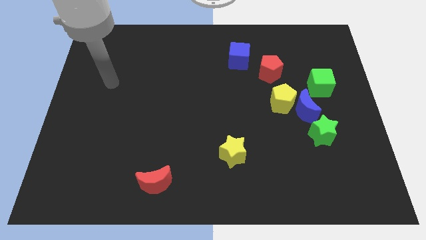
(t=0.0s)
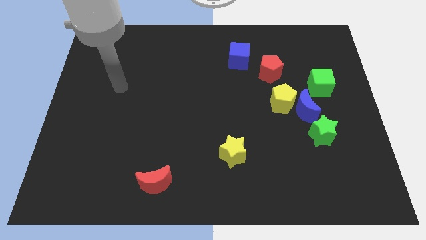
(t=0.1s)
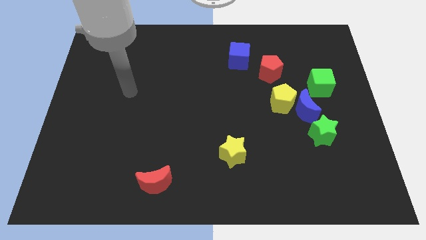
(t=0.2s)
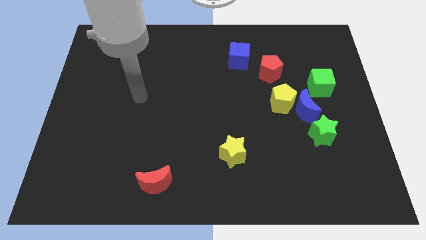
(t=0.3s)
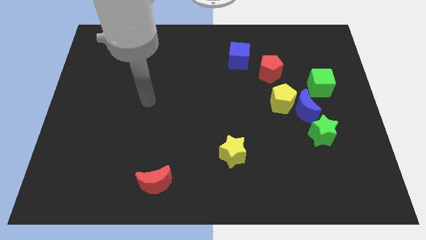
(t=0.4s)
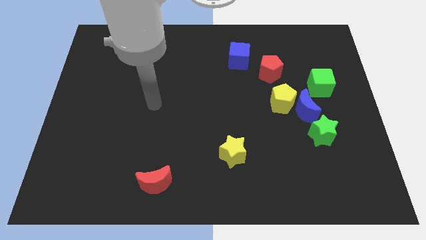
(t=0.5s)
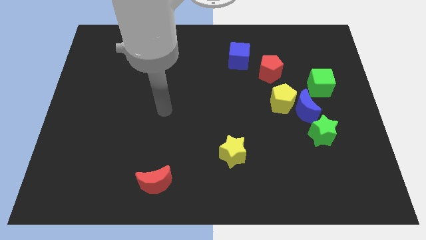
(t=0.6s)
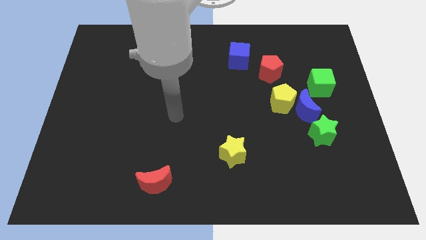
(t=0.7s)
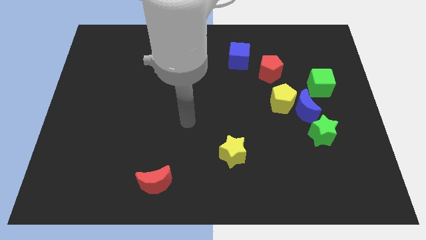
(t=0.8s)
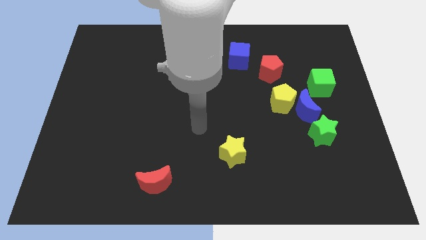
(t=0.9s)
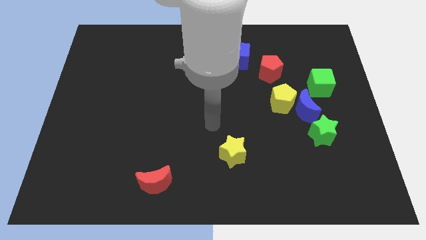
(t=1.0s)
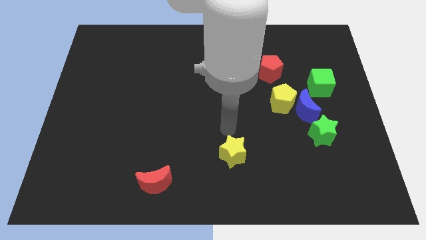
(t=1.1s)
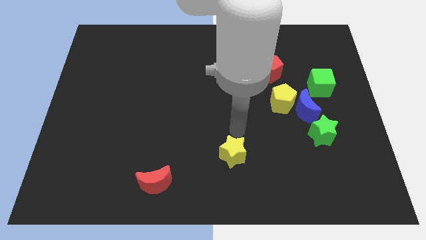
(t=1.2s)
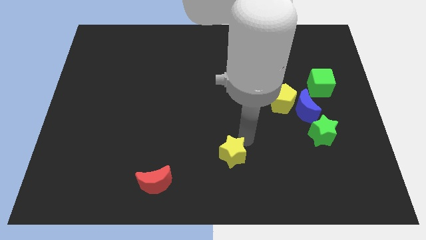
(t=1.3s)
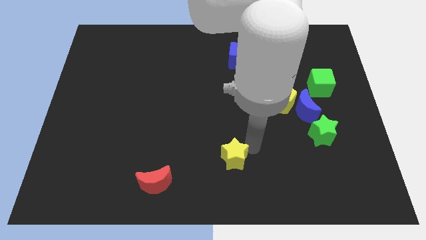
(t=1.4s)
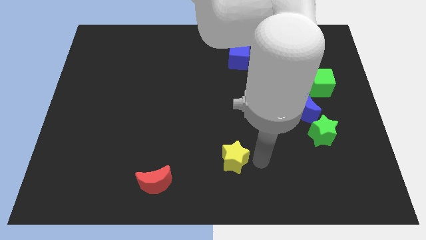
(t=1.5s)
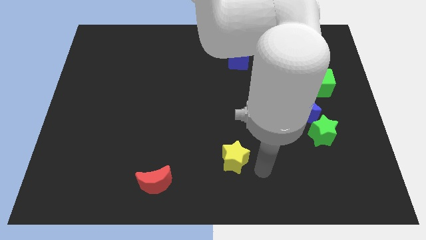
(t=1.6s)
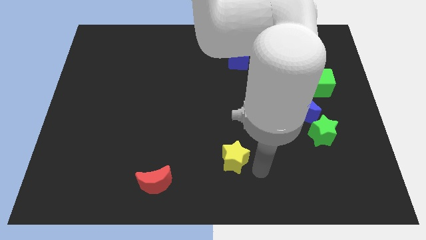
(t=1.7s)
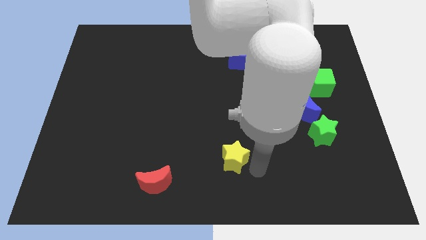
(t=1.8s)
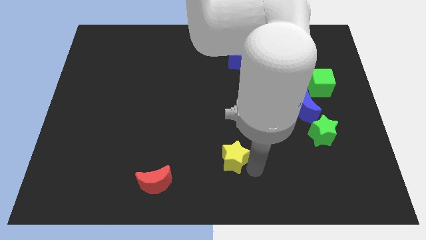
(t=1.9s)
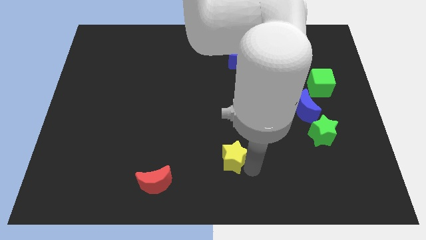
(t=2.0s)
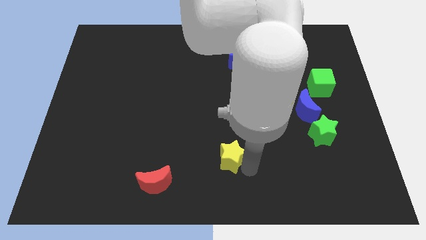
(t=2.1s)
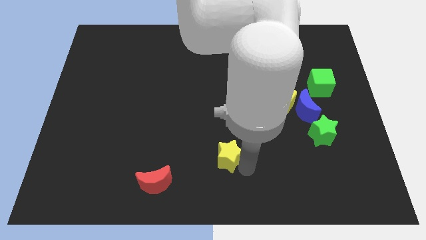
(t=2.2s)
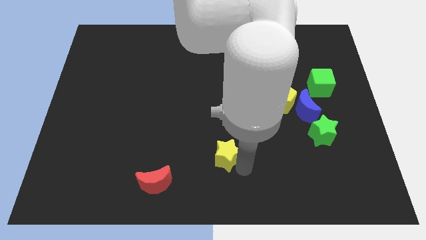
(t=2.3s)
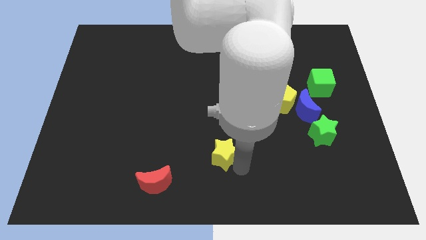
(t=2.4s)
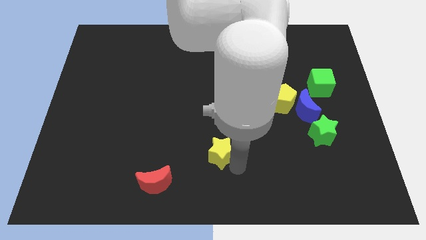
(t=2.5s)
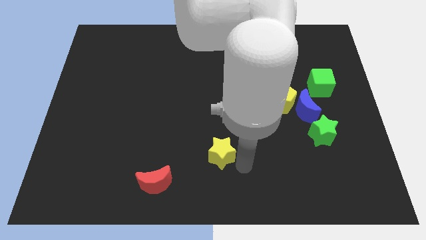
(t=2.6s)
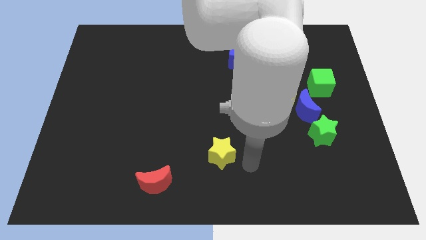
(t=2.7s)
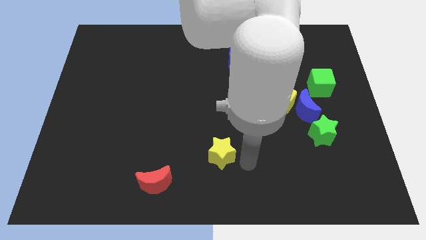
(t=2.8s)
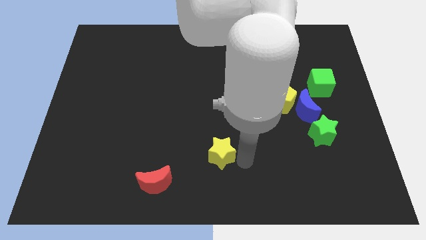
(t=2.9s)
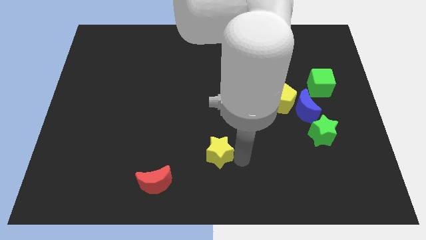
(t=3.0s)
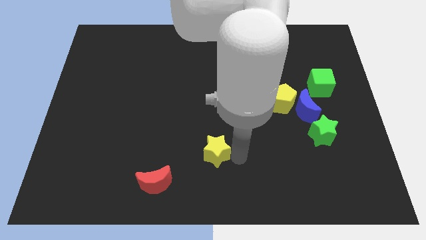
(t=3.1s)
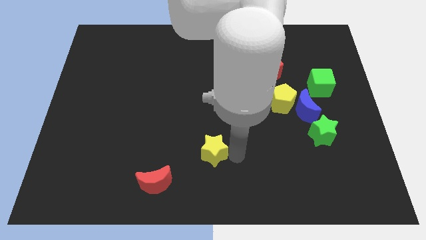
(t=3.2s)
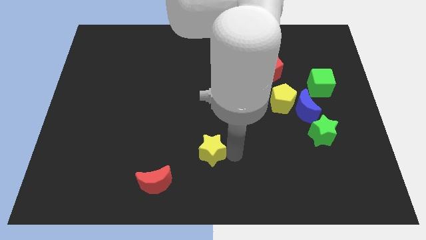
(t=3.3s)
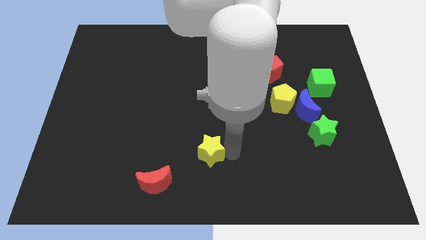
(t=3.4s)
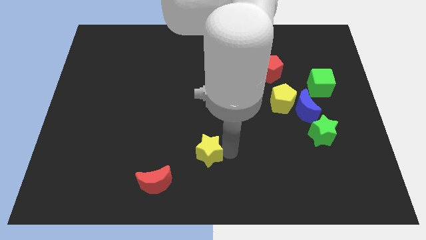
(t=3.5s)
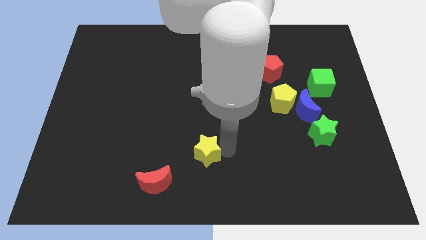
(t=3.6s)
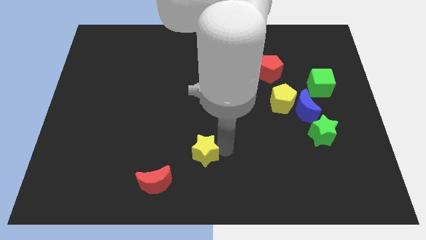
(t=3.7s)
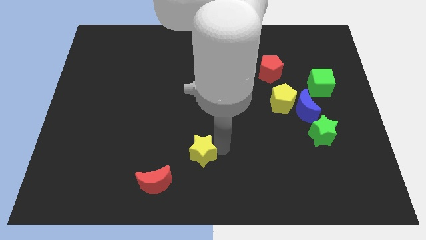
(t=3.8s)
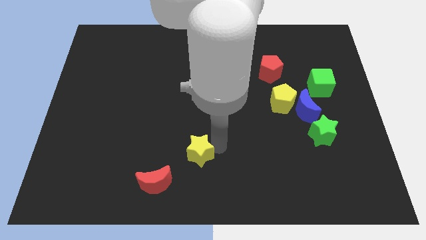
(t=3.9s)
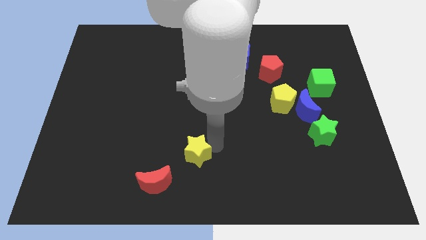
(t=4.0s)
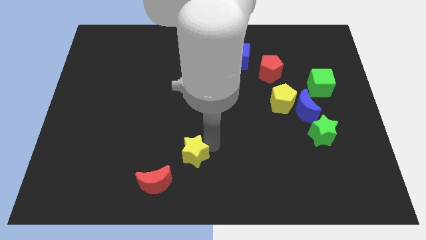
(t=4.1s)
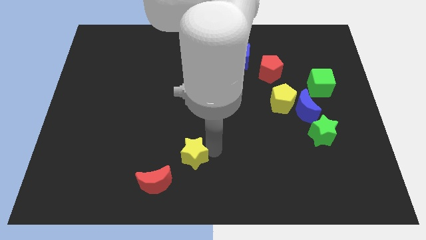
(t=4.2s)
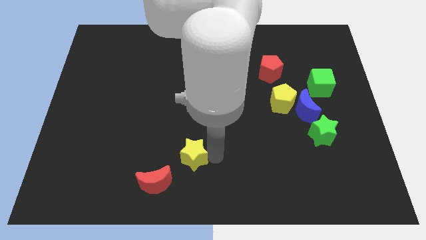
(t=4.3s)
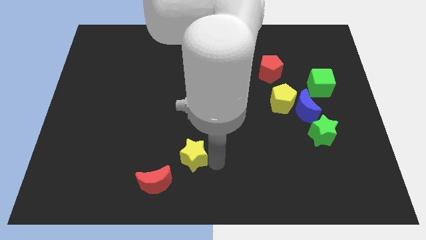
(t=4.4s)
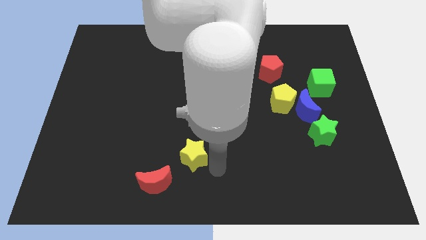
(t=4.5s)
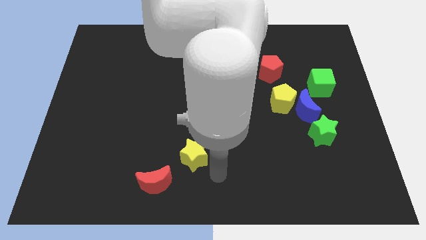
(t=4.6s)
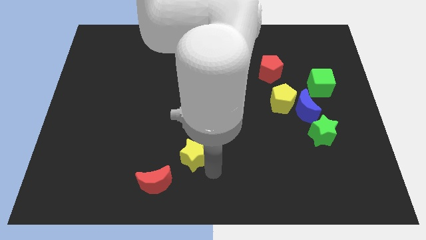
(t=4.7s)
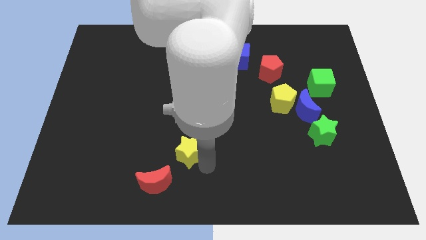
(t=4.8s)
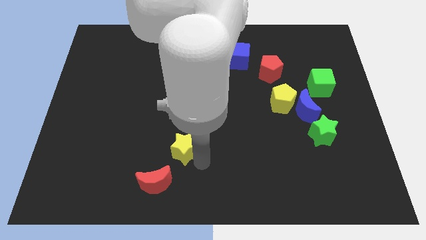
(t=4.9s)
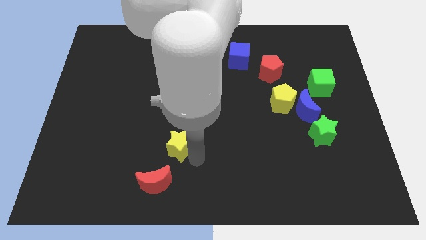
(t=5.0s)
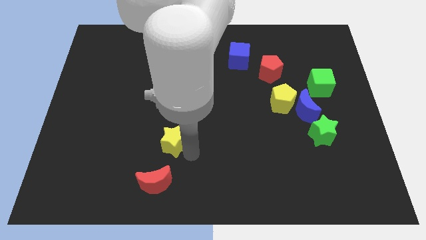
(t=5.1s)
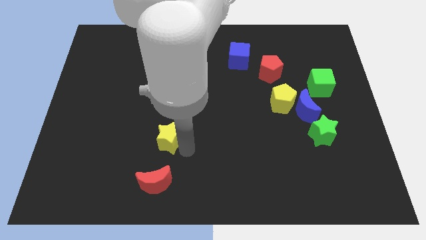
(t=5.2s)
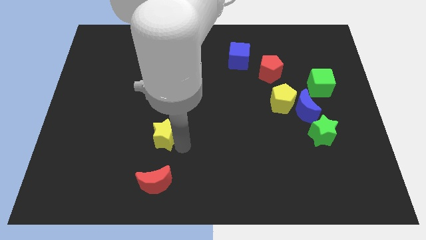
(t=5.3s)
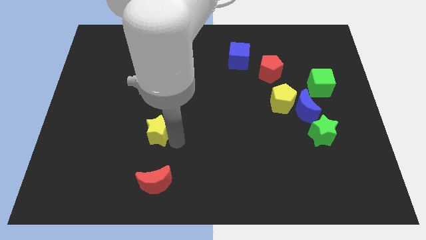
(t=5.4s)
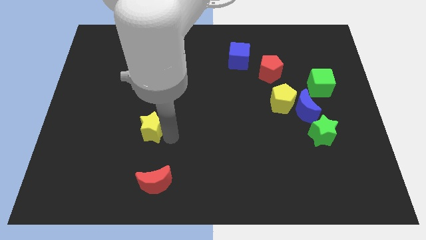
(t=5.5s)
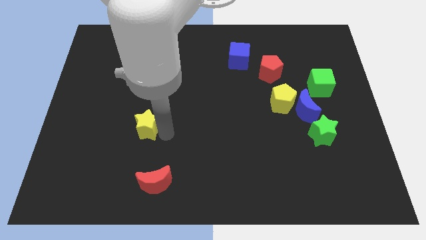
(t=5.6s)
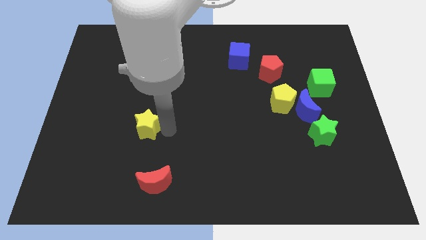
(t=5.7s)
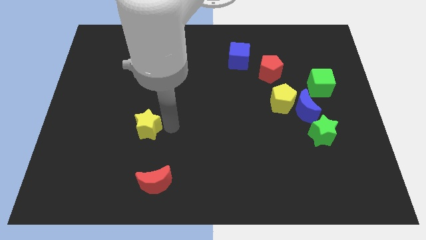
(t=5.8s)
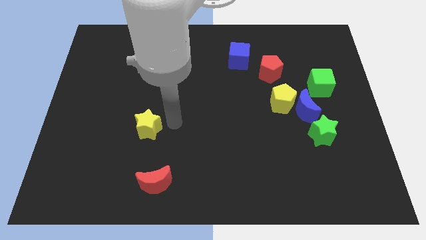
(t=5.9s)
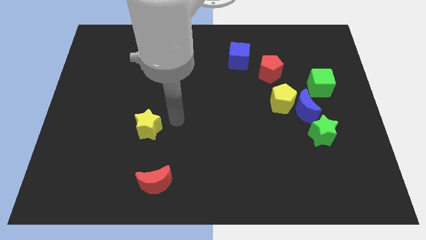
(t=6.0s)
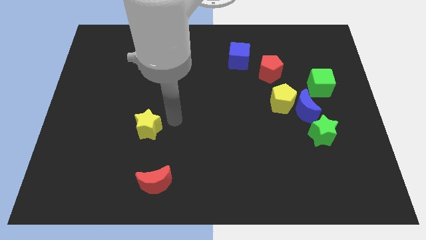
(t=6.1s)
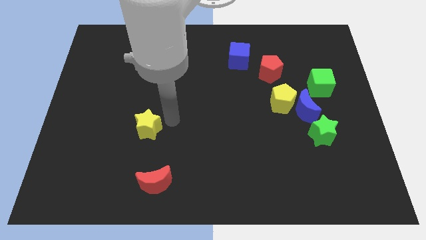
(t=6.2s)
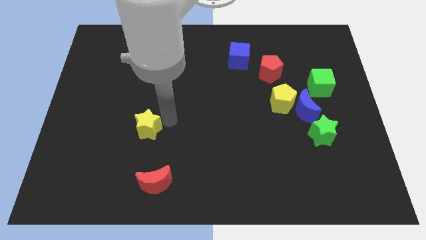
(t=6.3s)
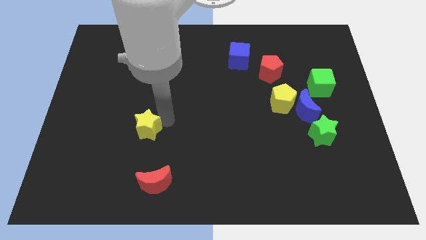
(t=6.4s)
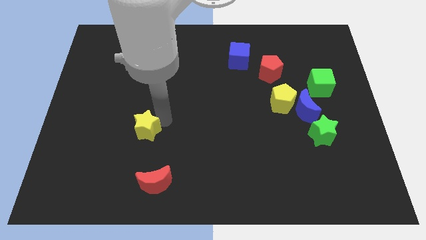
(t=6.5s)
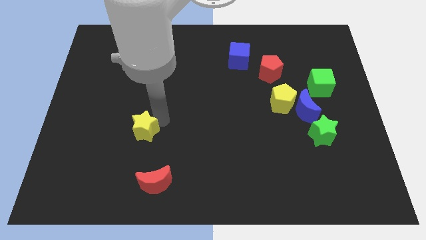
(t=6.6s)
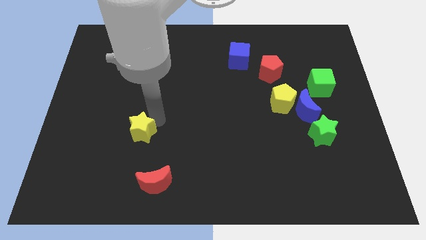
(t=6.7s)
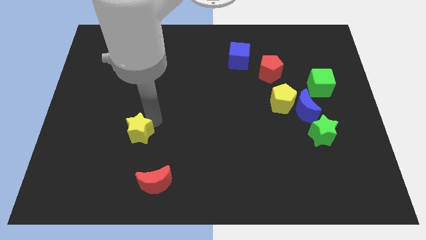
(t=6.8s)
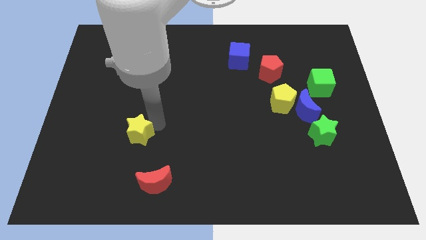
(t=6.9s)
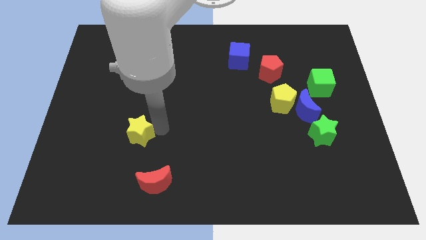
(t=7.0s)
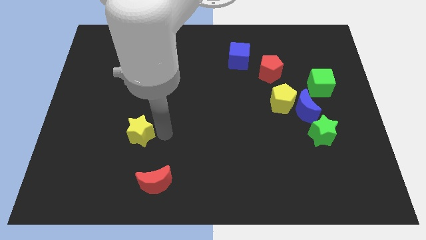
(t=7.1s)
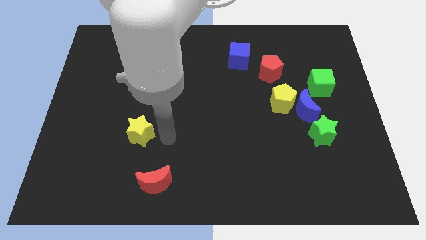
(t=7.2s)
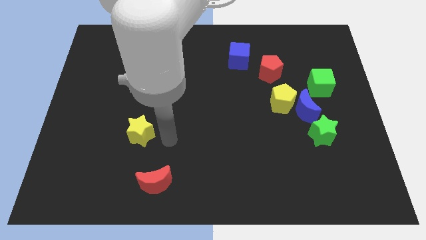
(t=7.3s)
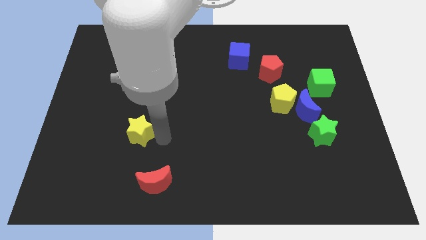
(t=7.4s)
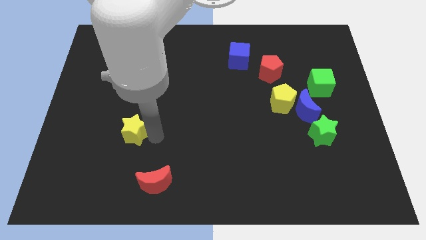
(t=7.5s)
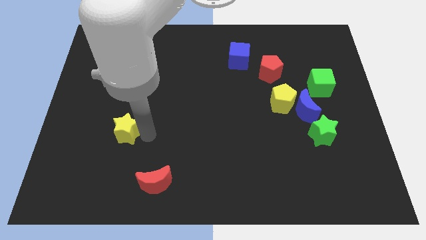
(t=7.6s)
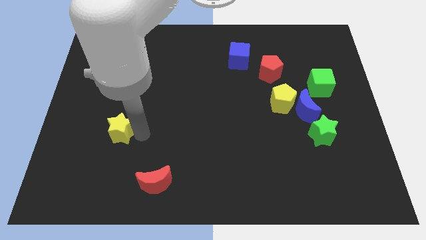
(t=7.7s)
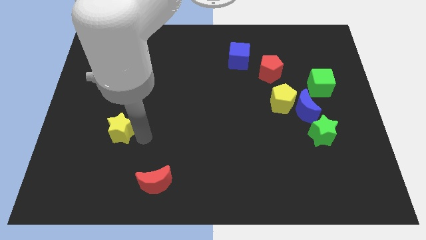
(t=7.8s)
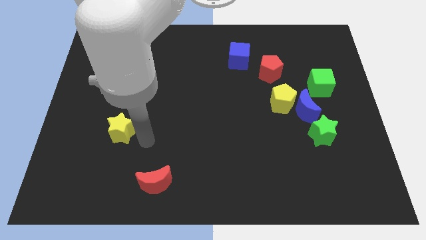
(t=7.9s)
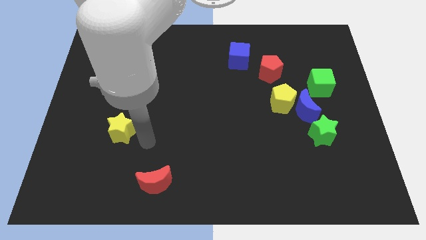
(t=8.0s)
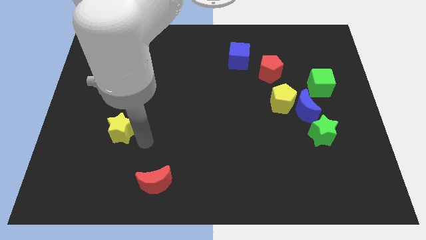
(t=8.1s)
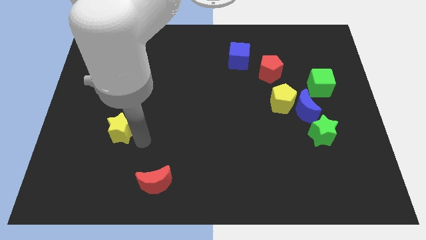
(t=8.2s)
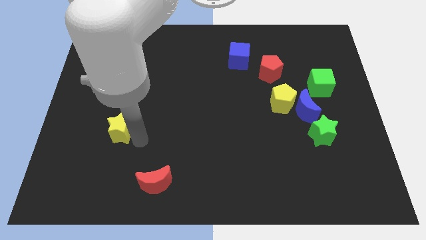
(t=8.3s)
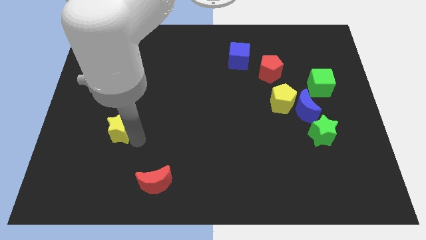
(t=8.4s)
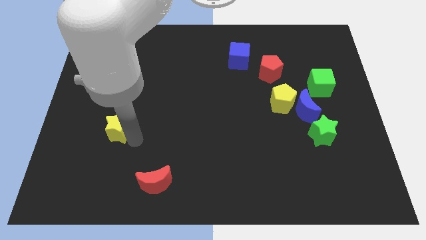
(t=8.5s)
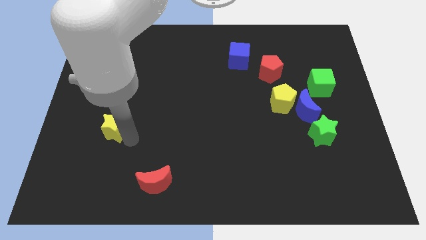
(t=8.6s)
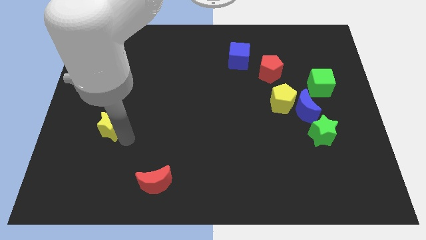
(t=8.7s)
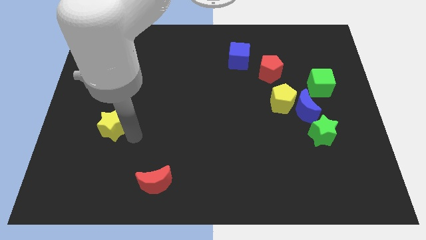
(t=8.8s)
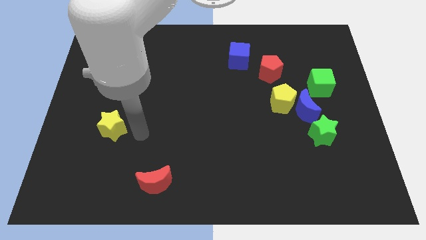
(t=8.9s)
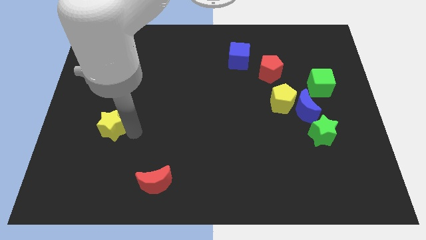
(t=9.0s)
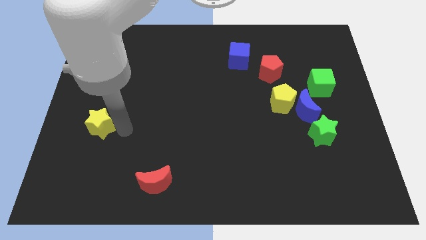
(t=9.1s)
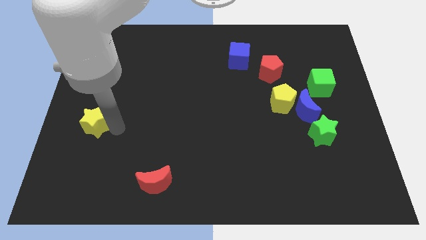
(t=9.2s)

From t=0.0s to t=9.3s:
push the yellow star to the center left
